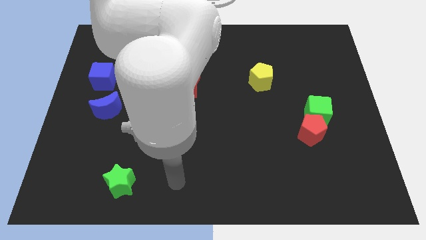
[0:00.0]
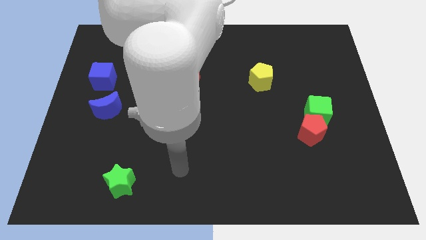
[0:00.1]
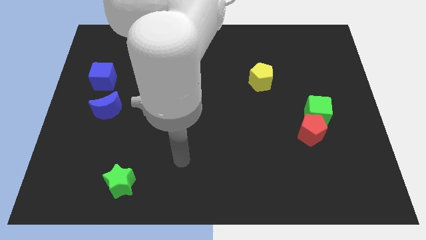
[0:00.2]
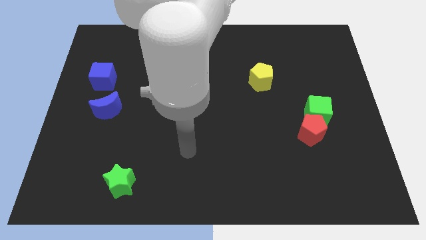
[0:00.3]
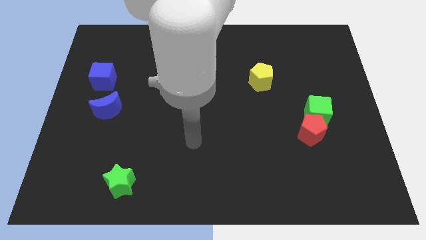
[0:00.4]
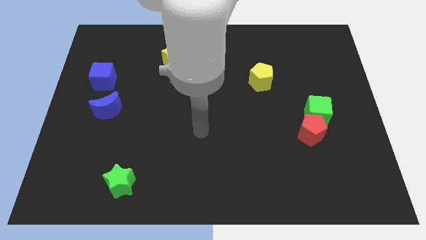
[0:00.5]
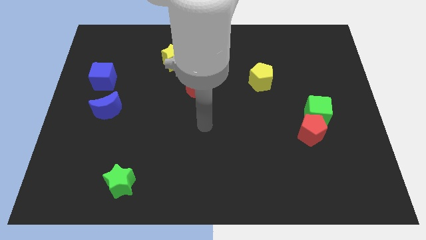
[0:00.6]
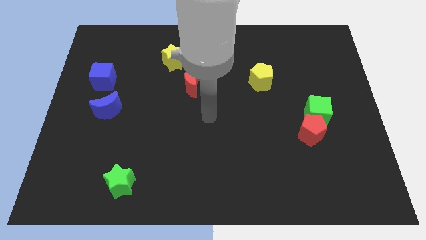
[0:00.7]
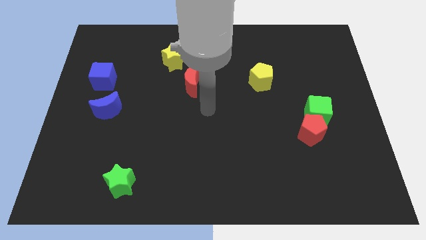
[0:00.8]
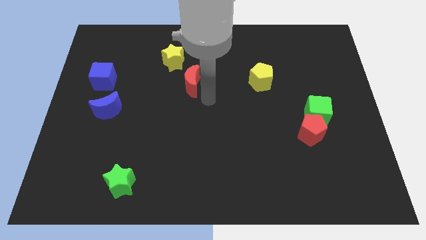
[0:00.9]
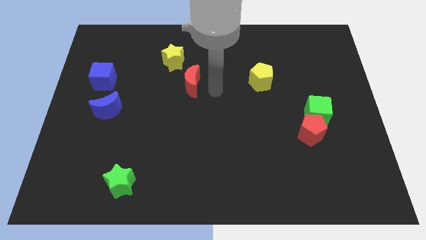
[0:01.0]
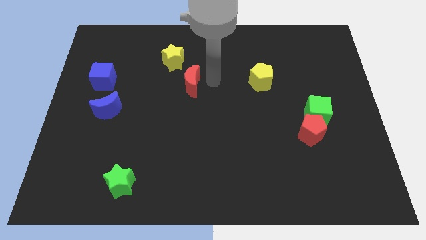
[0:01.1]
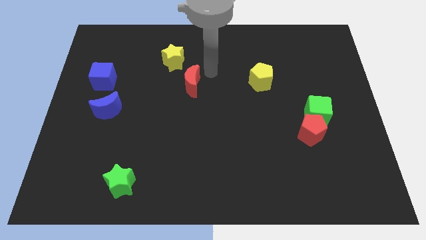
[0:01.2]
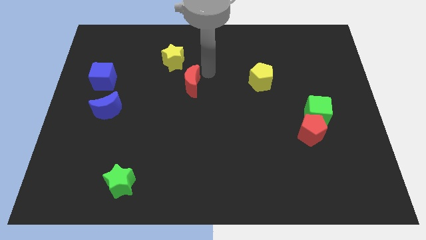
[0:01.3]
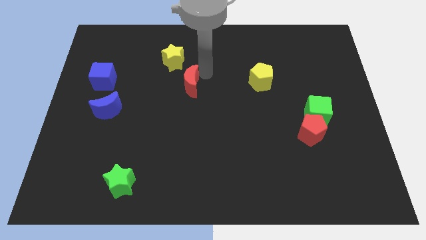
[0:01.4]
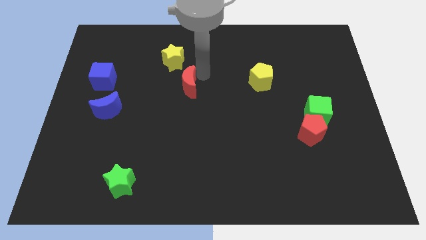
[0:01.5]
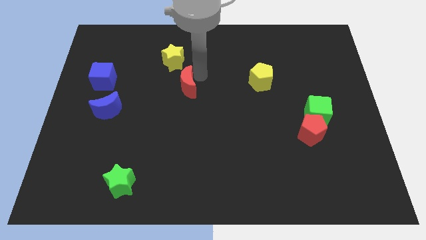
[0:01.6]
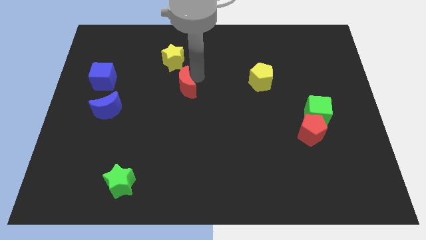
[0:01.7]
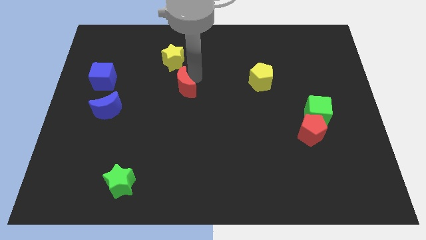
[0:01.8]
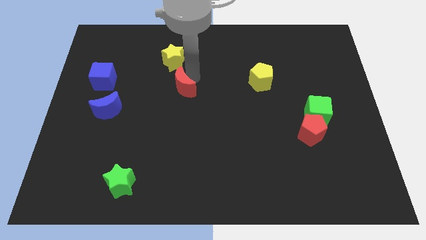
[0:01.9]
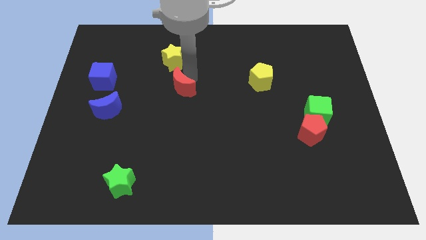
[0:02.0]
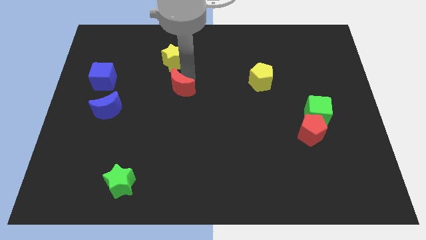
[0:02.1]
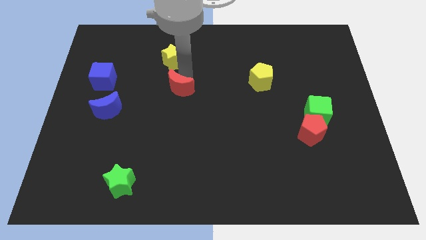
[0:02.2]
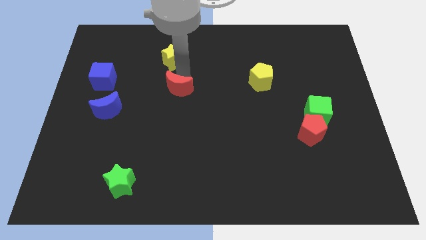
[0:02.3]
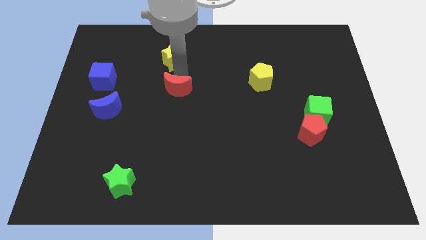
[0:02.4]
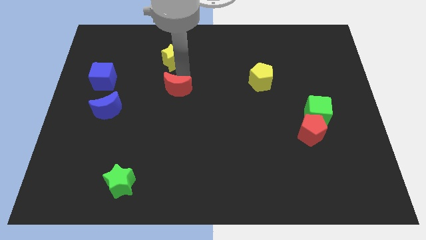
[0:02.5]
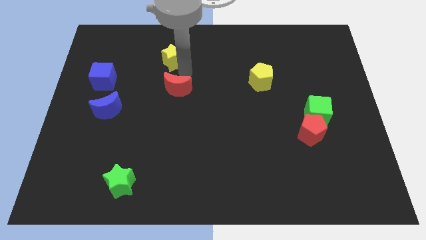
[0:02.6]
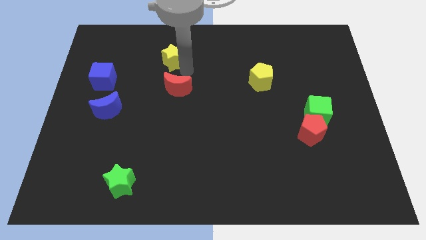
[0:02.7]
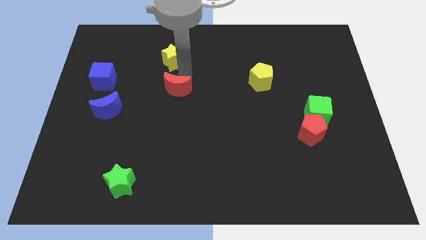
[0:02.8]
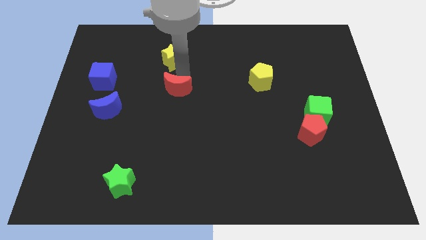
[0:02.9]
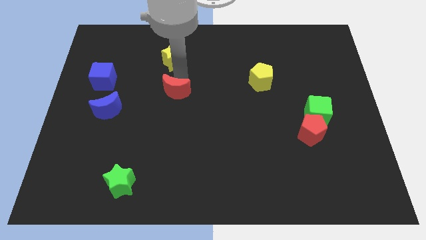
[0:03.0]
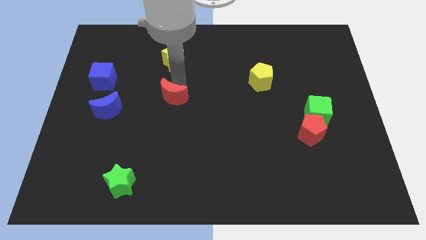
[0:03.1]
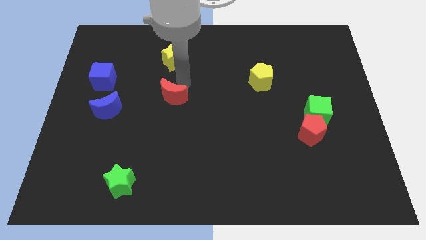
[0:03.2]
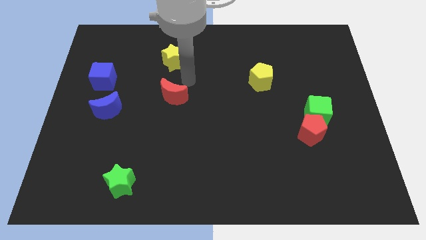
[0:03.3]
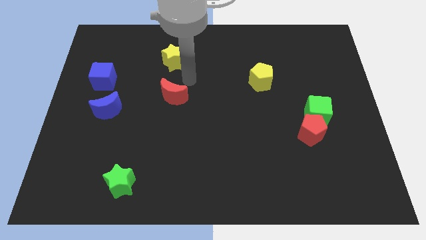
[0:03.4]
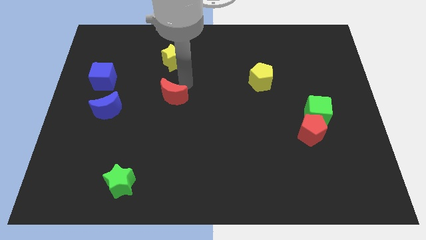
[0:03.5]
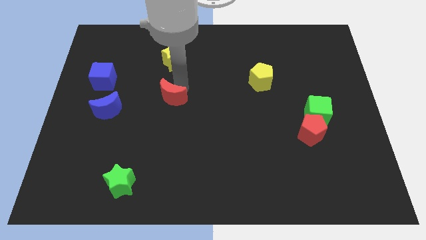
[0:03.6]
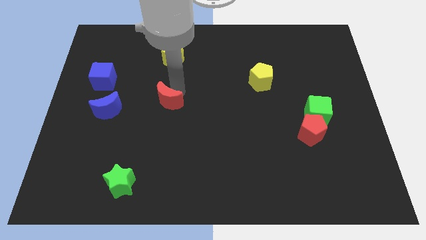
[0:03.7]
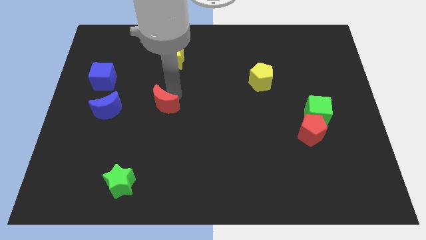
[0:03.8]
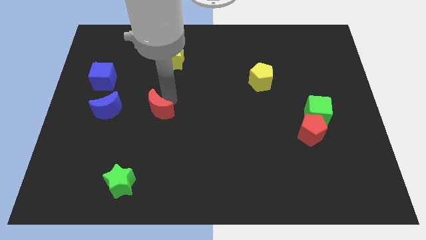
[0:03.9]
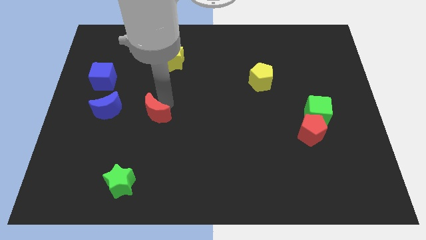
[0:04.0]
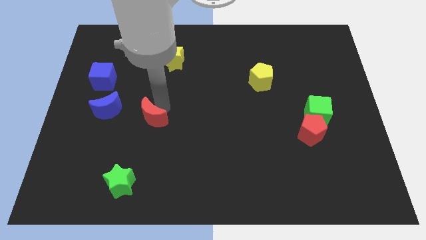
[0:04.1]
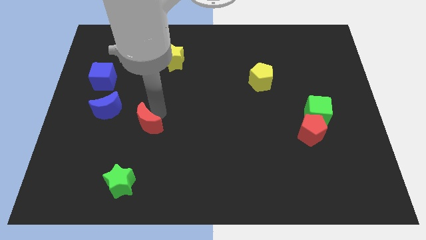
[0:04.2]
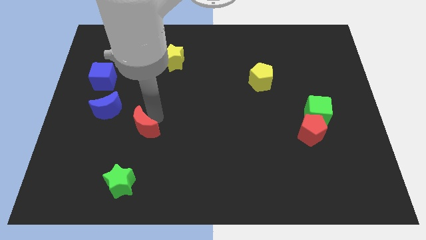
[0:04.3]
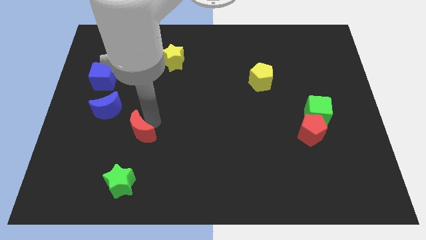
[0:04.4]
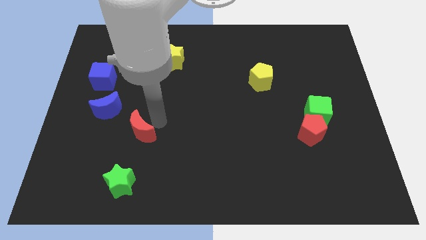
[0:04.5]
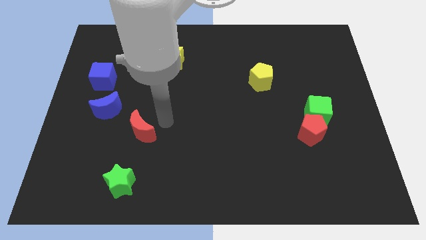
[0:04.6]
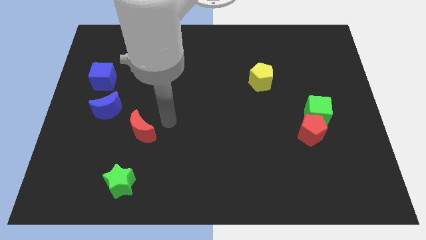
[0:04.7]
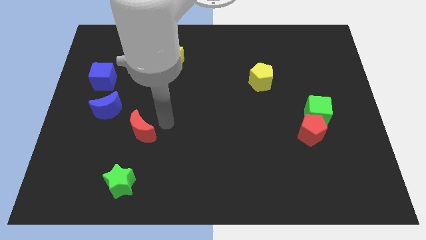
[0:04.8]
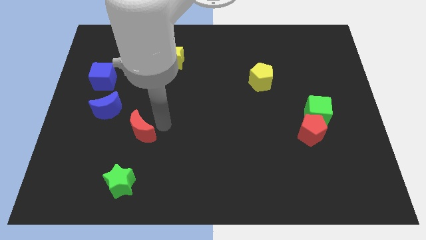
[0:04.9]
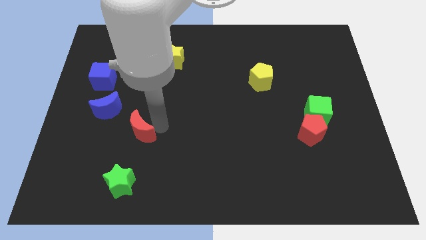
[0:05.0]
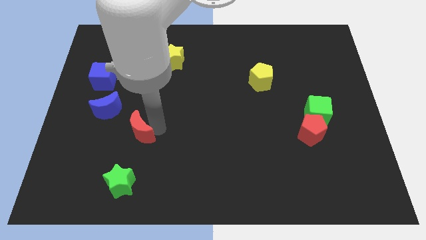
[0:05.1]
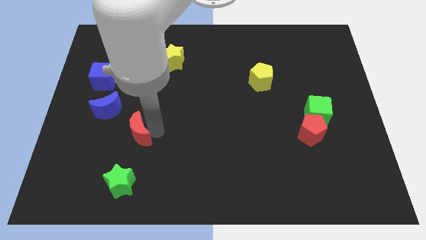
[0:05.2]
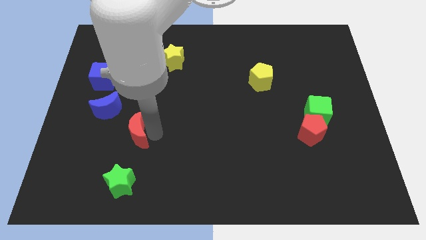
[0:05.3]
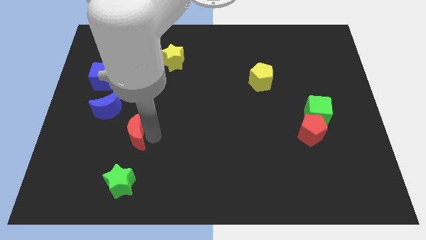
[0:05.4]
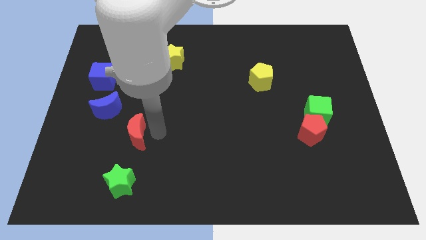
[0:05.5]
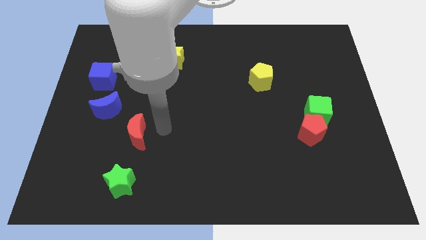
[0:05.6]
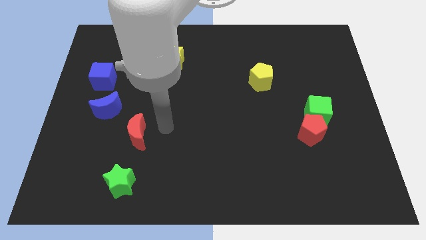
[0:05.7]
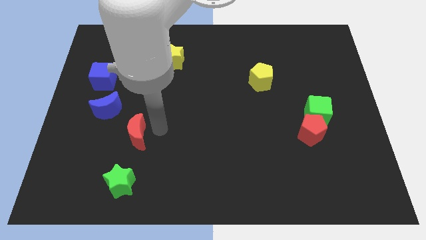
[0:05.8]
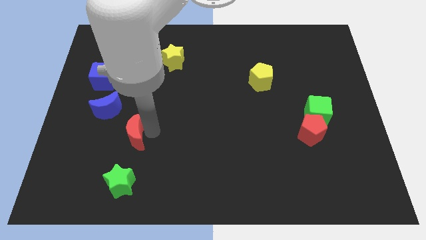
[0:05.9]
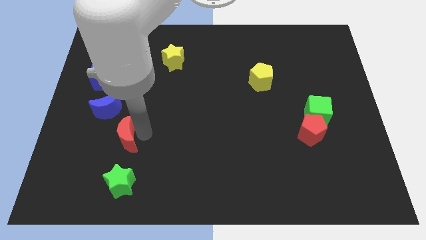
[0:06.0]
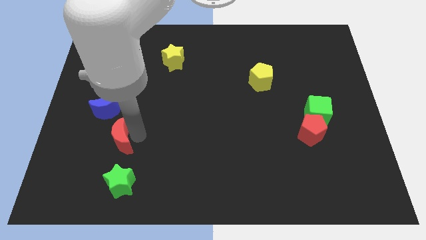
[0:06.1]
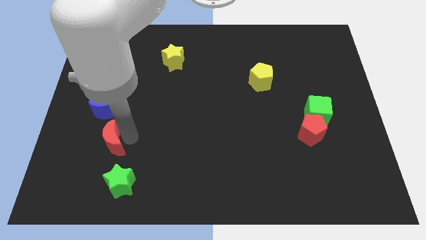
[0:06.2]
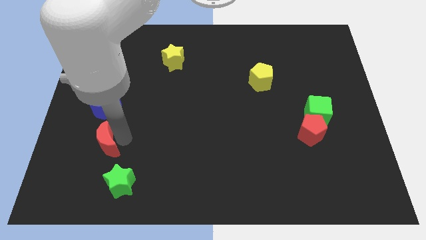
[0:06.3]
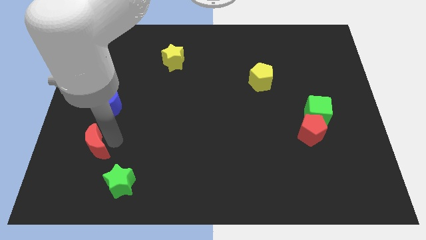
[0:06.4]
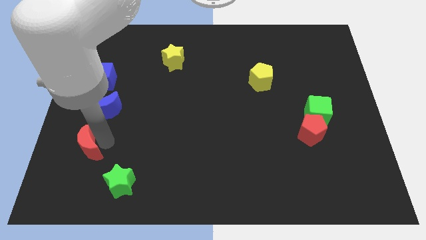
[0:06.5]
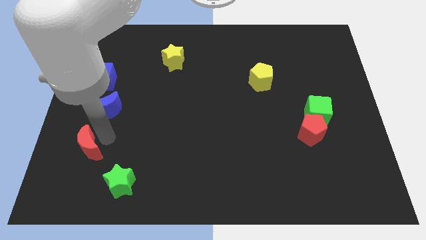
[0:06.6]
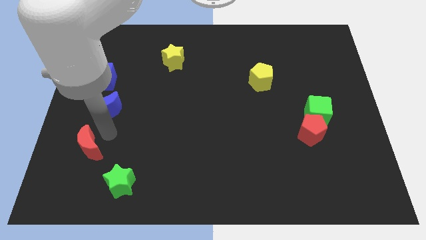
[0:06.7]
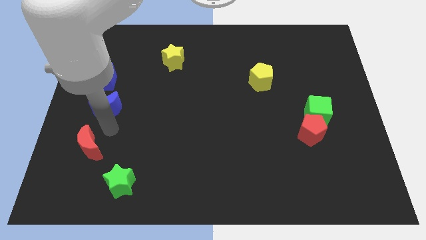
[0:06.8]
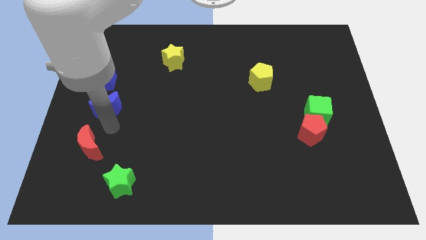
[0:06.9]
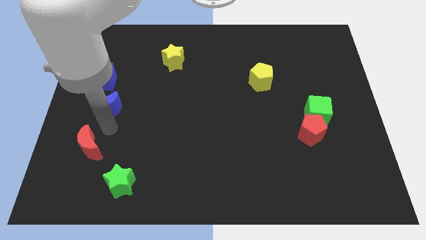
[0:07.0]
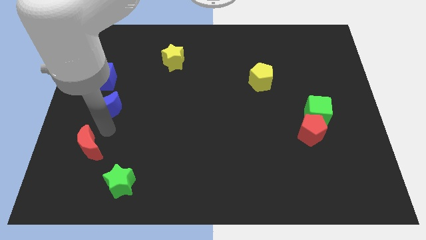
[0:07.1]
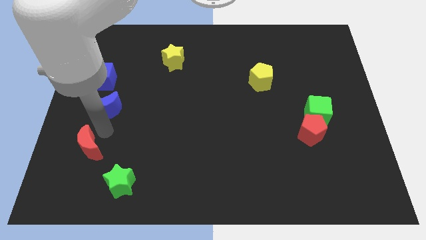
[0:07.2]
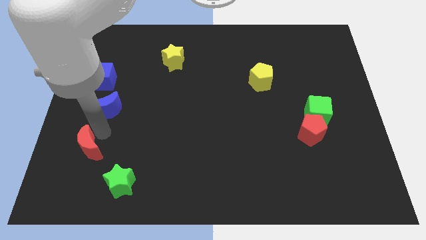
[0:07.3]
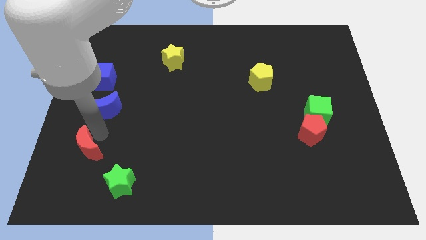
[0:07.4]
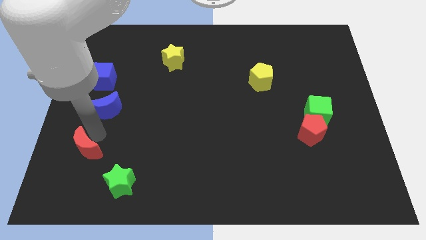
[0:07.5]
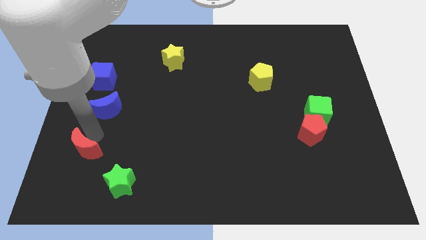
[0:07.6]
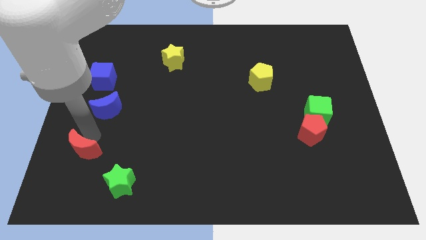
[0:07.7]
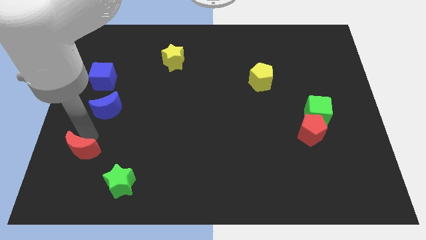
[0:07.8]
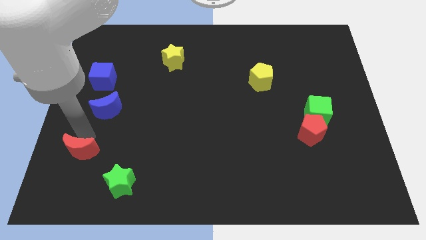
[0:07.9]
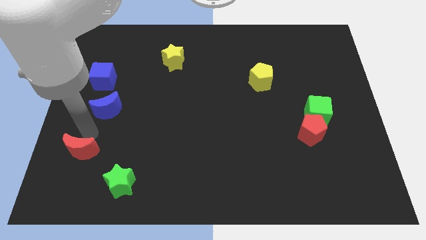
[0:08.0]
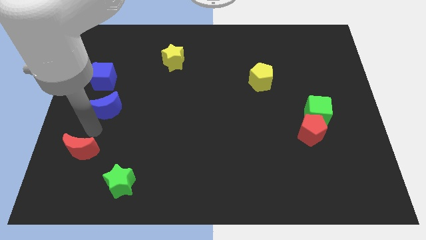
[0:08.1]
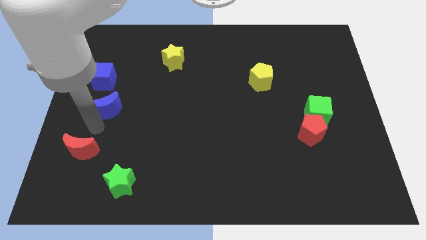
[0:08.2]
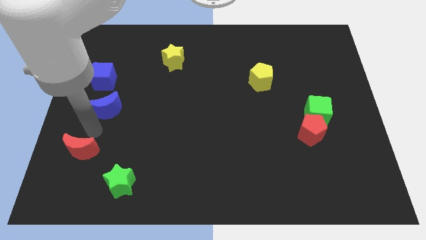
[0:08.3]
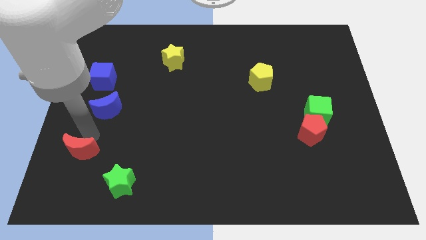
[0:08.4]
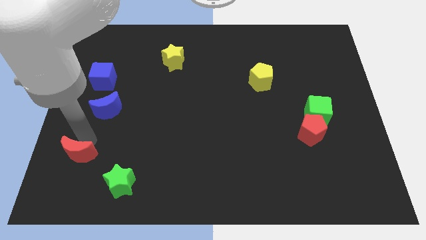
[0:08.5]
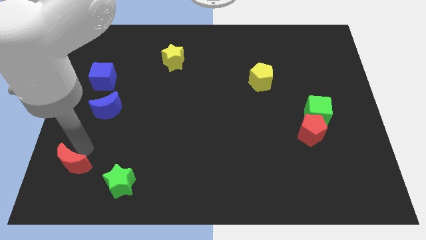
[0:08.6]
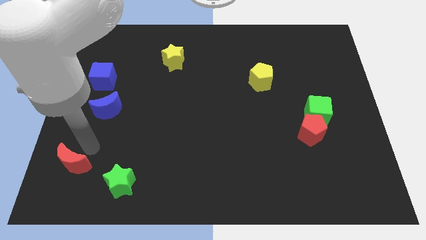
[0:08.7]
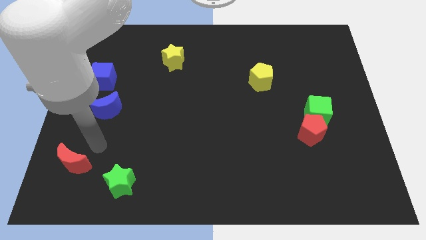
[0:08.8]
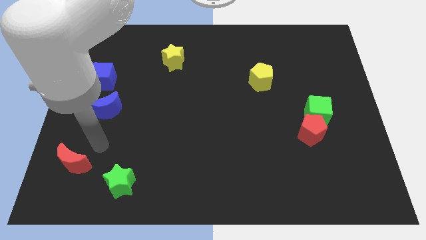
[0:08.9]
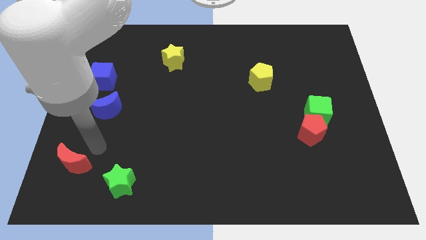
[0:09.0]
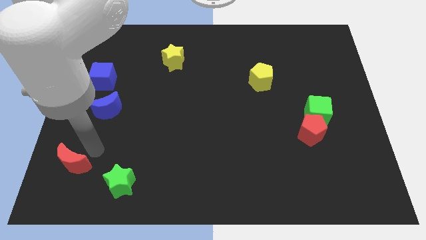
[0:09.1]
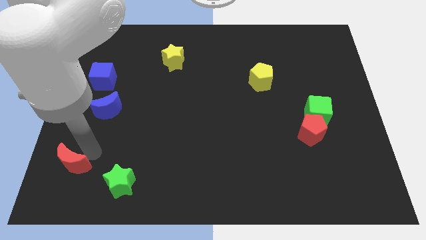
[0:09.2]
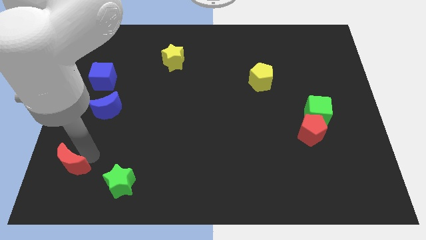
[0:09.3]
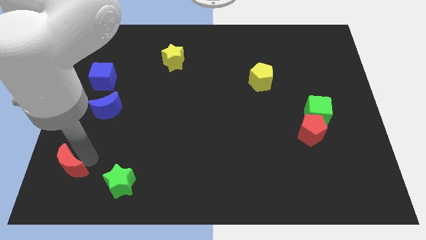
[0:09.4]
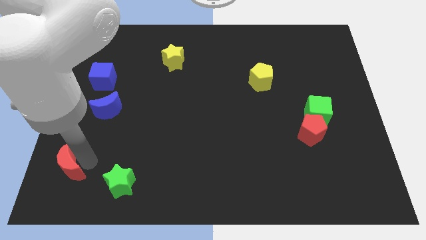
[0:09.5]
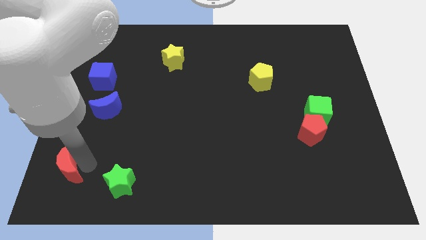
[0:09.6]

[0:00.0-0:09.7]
push the red moon to the bottom left
